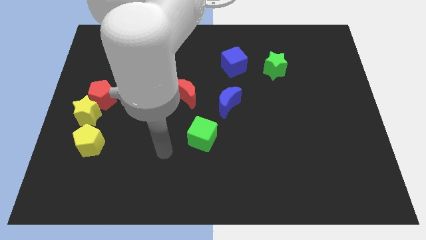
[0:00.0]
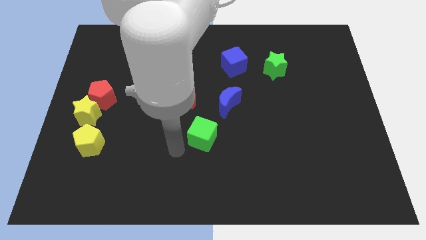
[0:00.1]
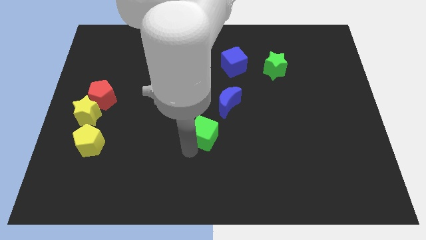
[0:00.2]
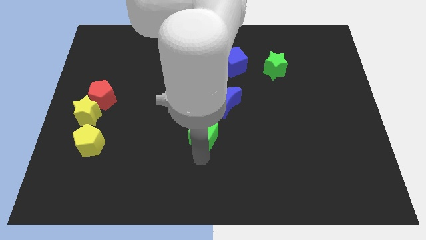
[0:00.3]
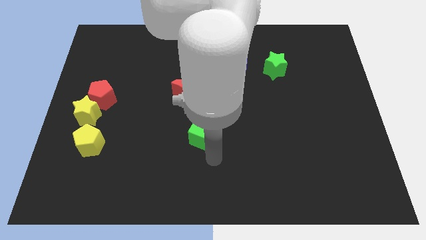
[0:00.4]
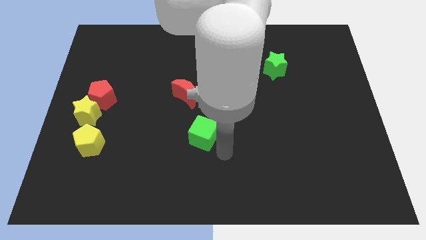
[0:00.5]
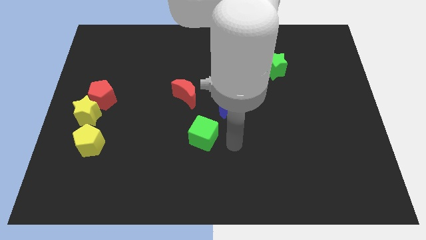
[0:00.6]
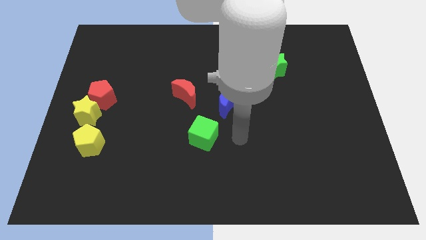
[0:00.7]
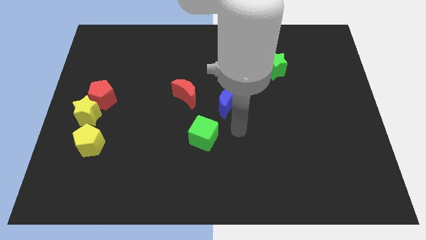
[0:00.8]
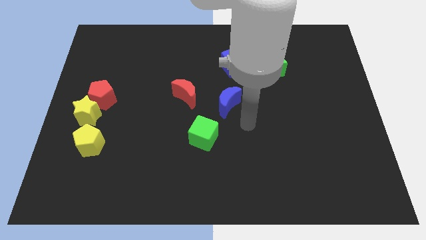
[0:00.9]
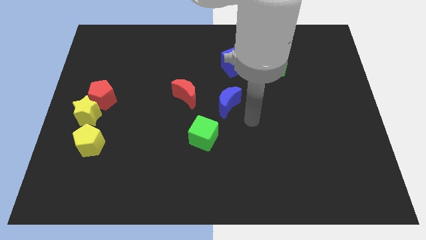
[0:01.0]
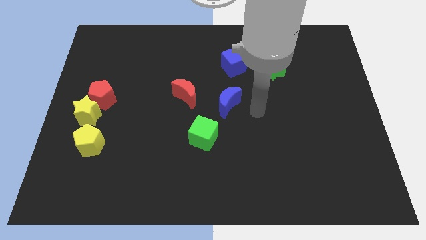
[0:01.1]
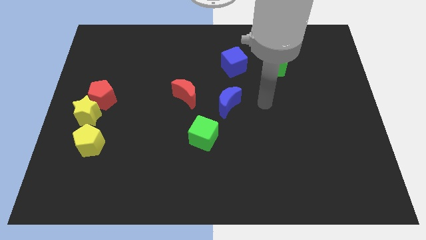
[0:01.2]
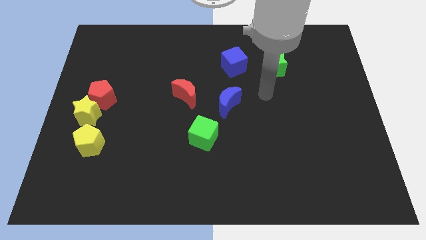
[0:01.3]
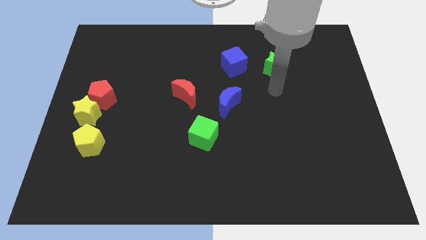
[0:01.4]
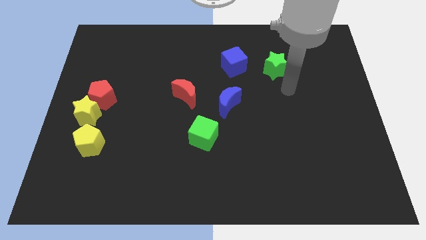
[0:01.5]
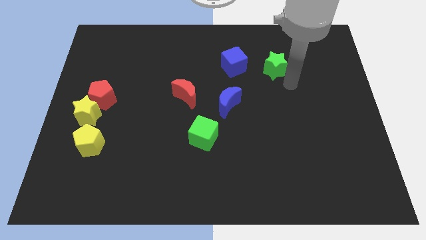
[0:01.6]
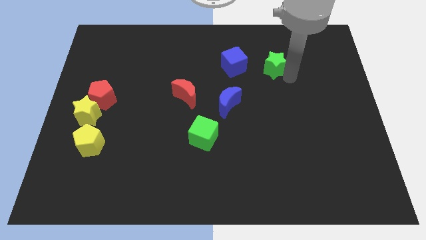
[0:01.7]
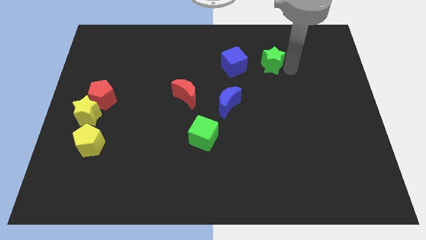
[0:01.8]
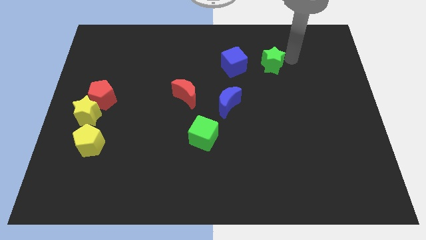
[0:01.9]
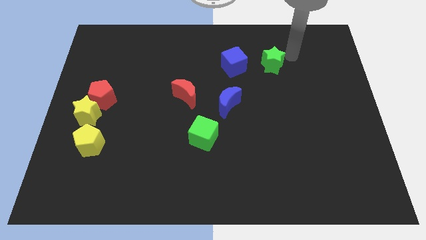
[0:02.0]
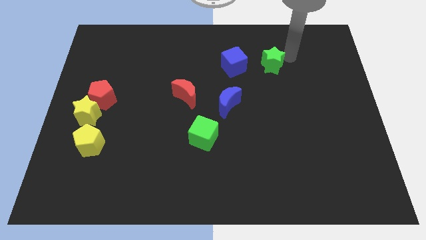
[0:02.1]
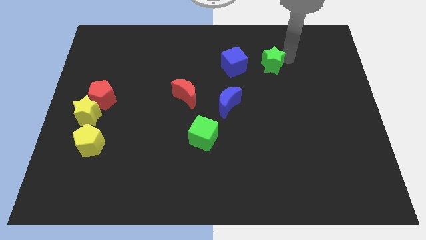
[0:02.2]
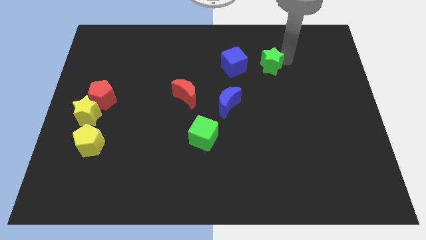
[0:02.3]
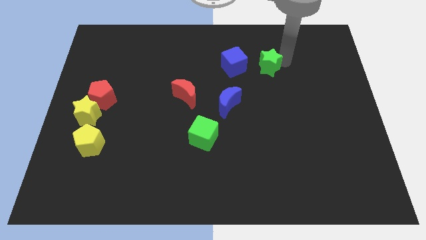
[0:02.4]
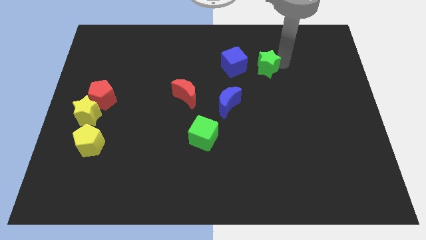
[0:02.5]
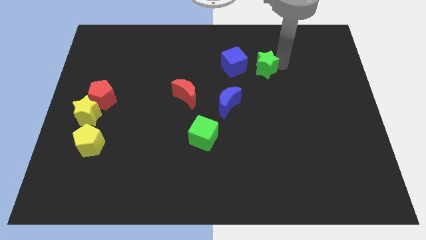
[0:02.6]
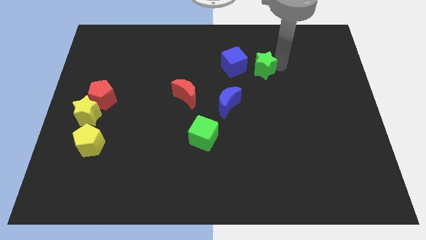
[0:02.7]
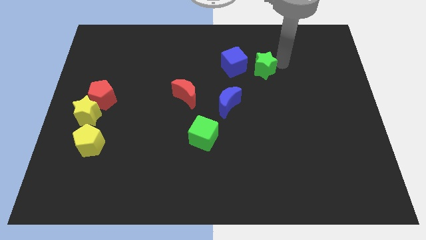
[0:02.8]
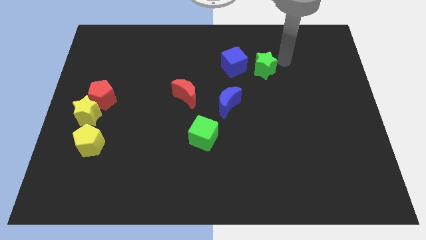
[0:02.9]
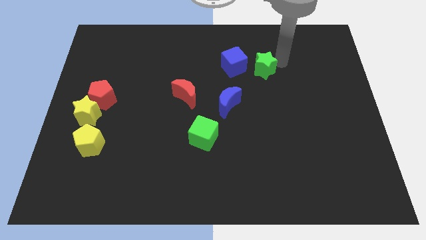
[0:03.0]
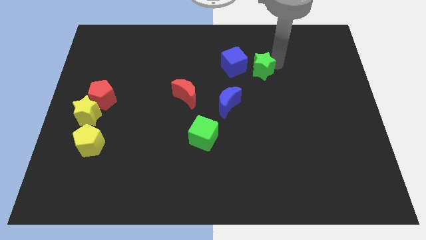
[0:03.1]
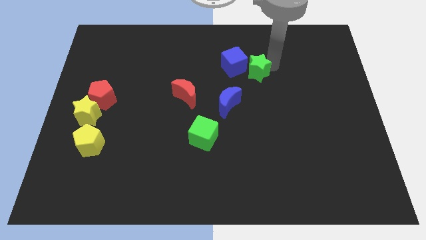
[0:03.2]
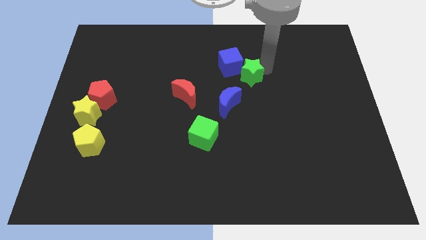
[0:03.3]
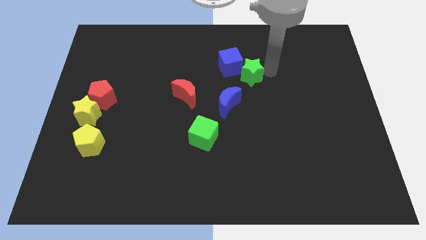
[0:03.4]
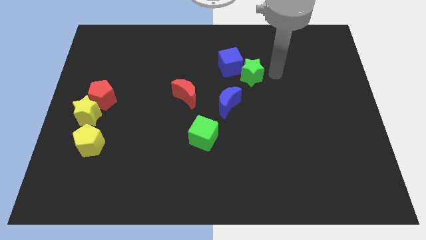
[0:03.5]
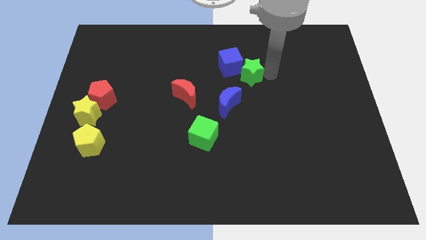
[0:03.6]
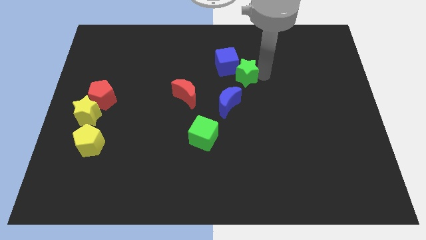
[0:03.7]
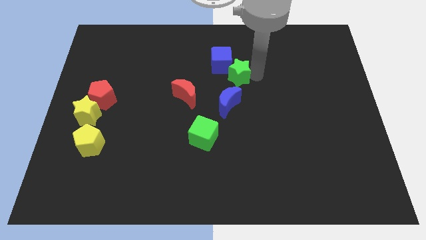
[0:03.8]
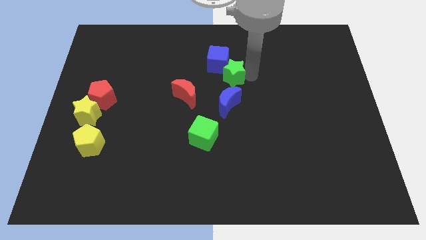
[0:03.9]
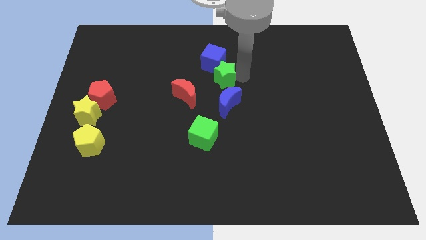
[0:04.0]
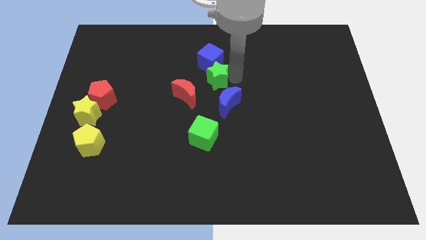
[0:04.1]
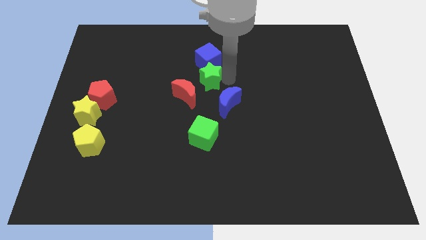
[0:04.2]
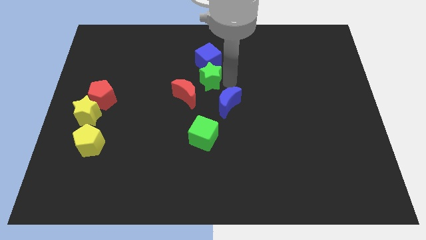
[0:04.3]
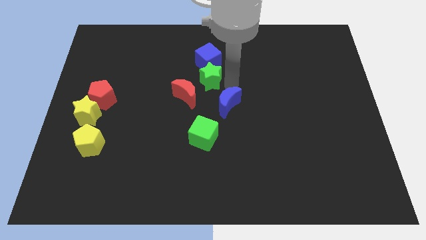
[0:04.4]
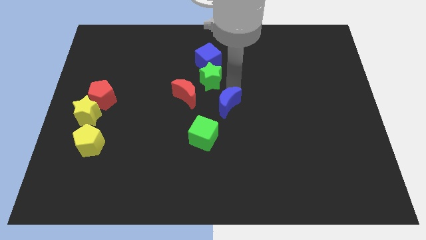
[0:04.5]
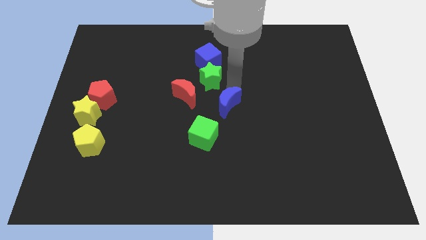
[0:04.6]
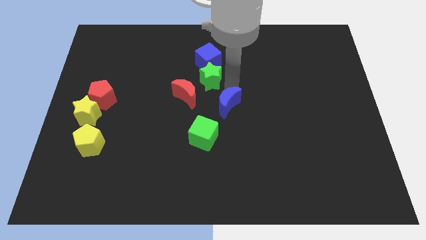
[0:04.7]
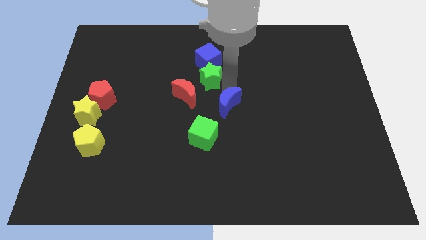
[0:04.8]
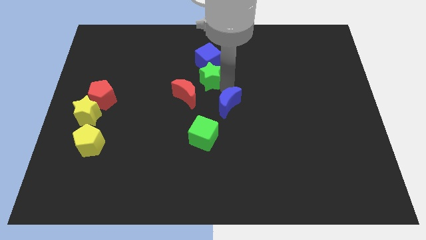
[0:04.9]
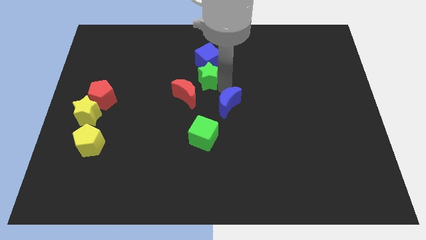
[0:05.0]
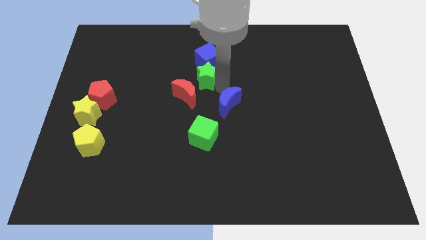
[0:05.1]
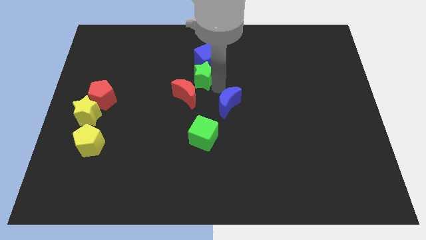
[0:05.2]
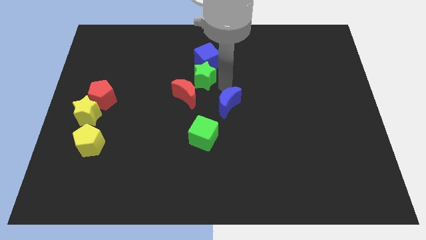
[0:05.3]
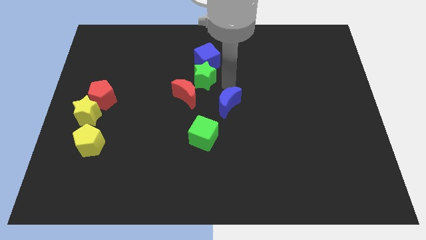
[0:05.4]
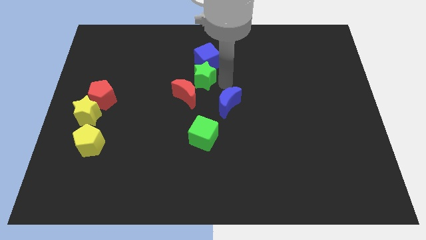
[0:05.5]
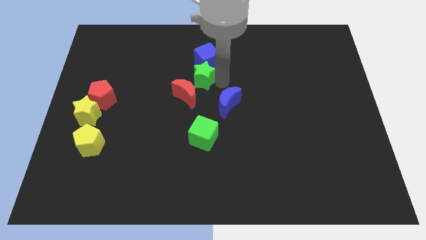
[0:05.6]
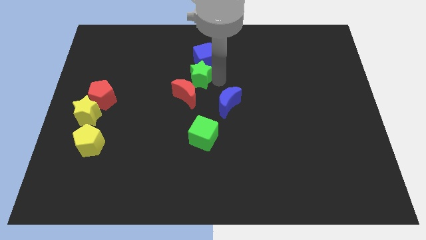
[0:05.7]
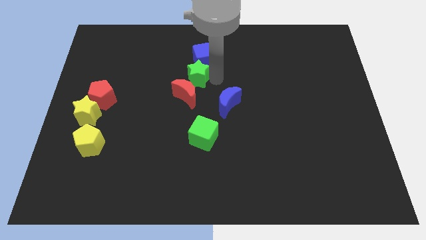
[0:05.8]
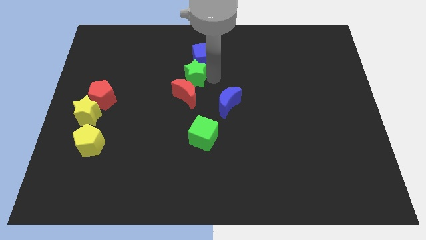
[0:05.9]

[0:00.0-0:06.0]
move the green star to the left

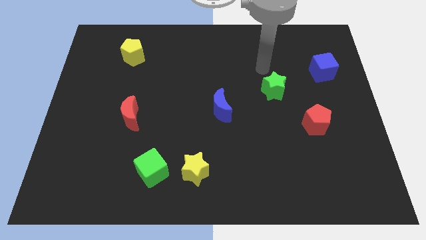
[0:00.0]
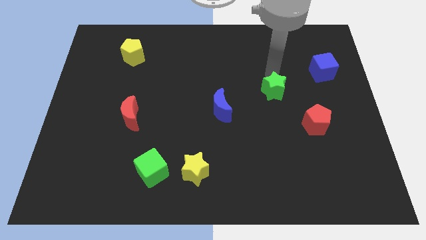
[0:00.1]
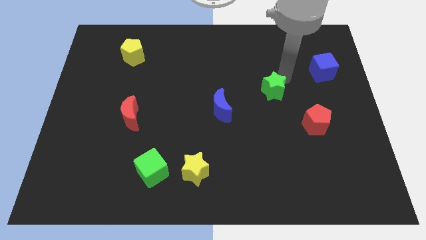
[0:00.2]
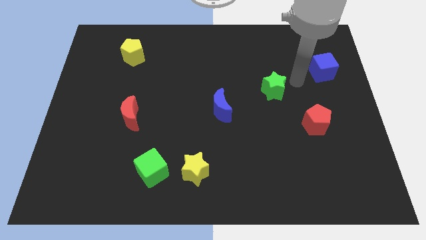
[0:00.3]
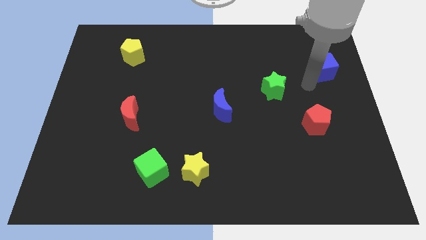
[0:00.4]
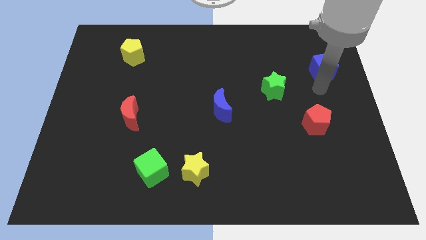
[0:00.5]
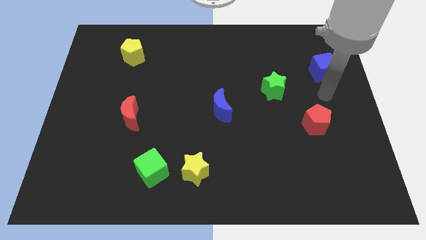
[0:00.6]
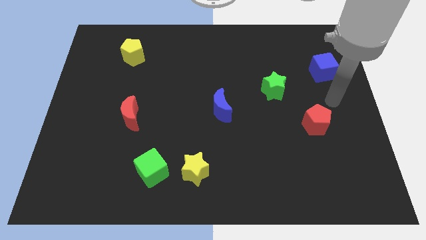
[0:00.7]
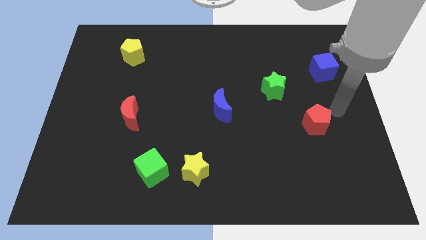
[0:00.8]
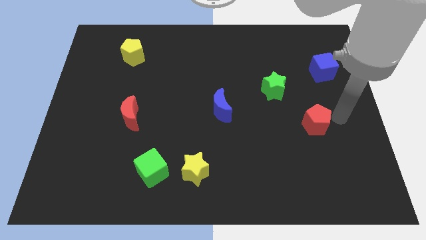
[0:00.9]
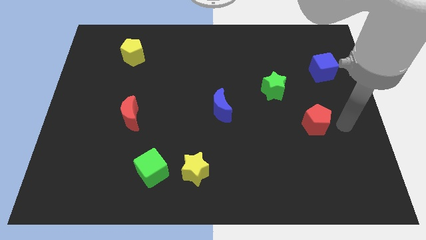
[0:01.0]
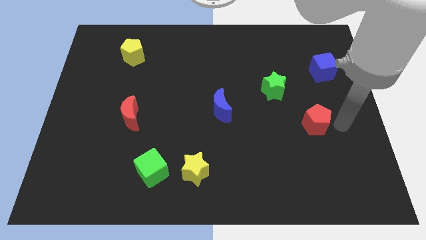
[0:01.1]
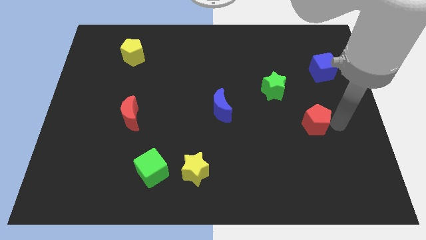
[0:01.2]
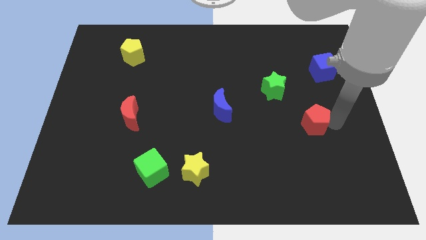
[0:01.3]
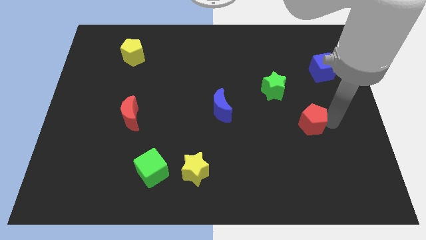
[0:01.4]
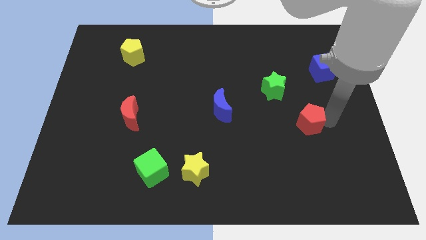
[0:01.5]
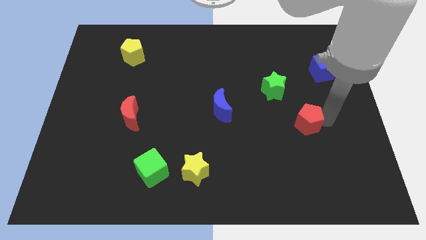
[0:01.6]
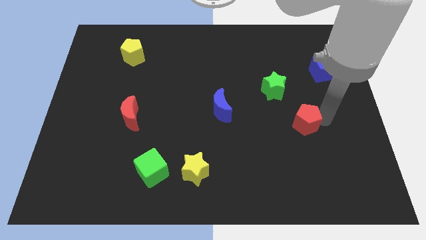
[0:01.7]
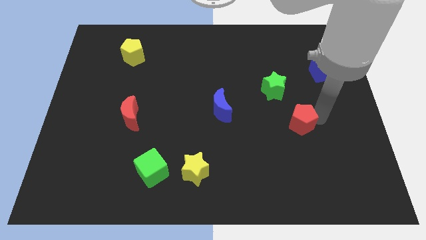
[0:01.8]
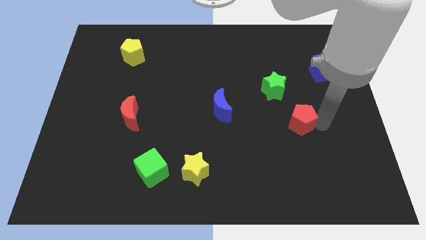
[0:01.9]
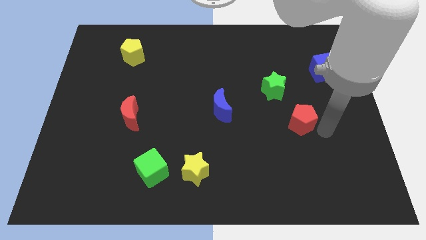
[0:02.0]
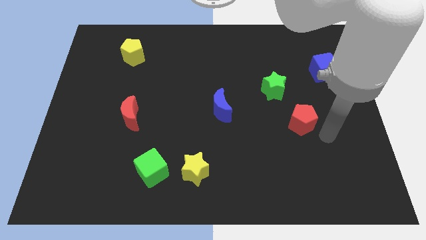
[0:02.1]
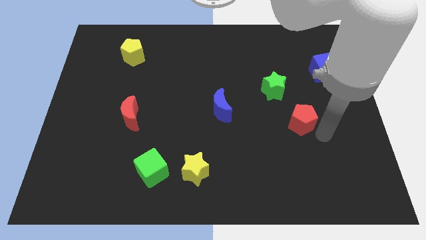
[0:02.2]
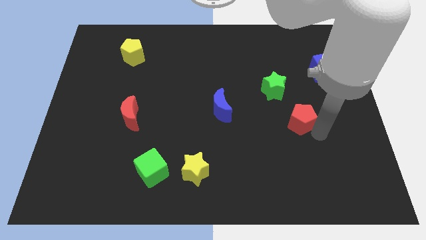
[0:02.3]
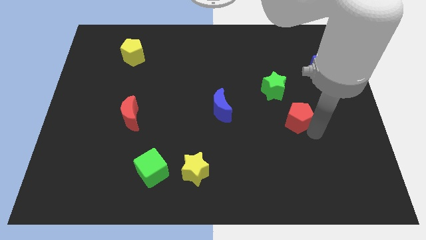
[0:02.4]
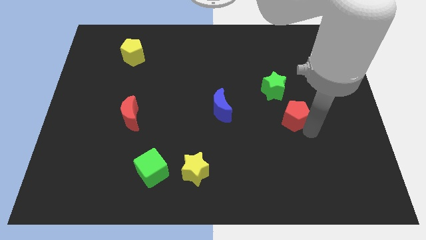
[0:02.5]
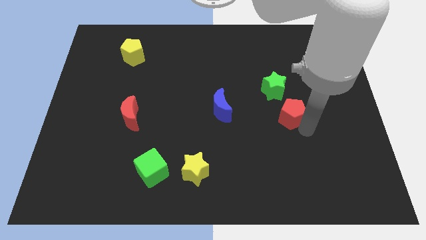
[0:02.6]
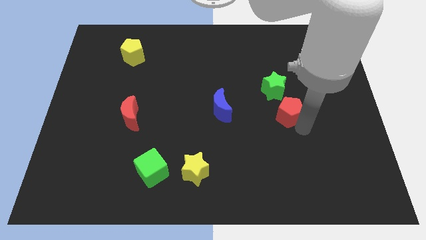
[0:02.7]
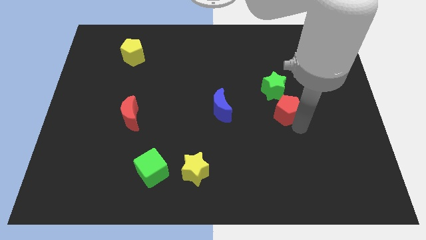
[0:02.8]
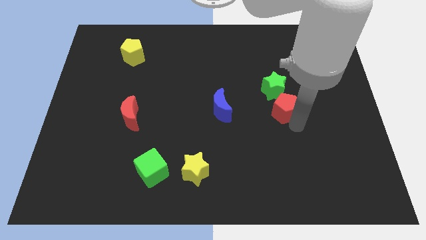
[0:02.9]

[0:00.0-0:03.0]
push the red pentagon somewhat upwards and left diagonally
